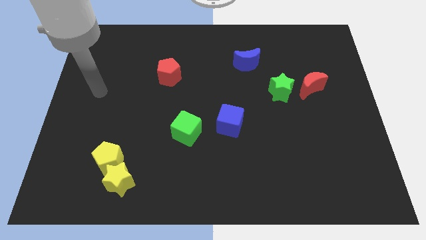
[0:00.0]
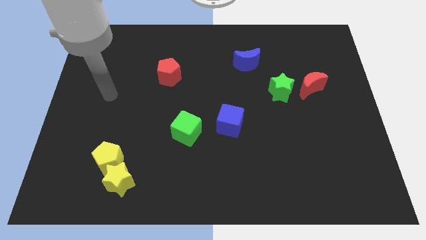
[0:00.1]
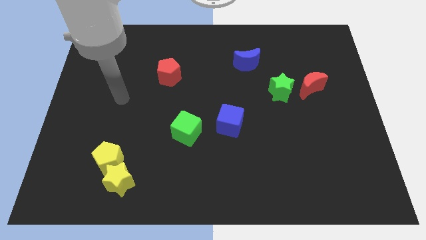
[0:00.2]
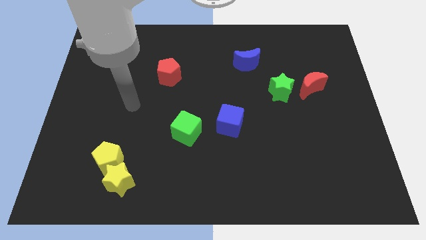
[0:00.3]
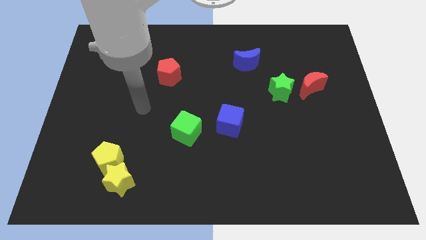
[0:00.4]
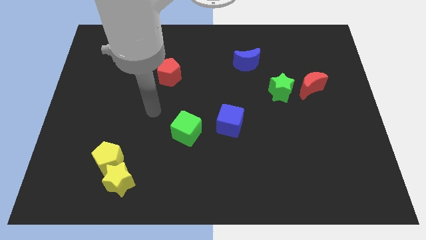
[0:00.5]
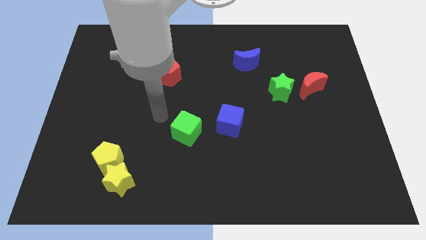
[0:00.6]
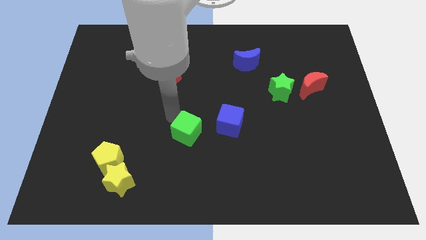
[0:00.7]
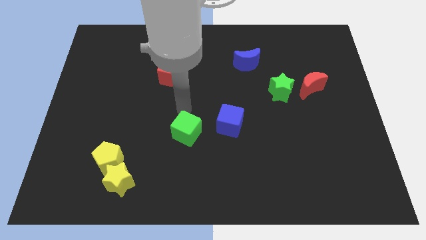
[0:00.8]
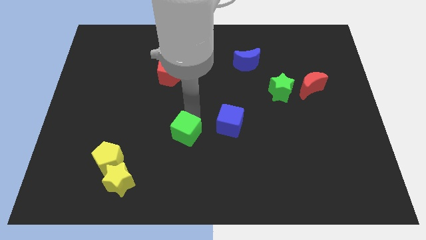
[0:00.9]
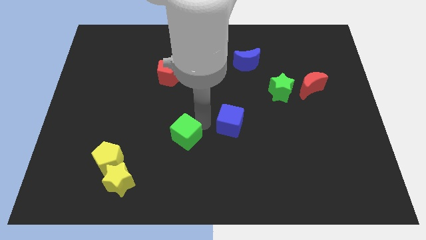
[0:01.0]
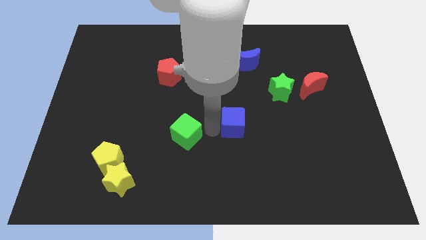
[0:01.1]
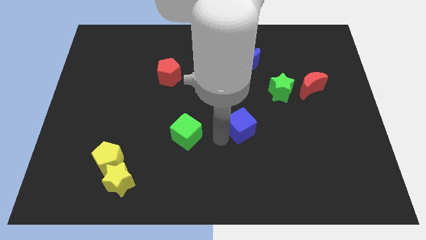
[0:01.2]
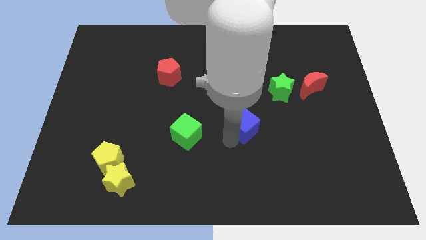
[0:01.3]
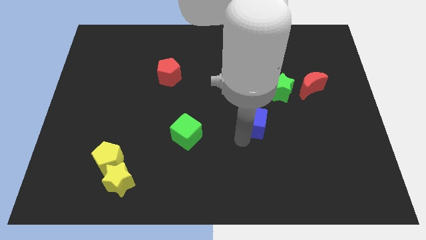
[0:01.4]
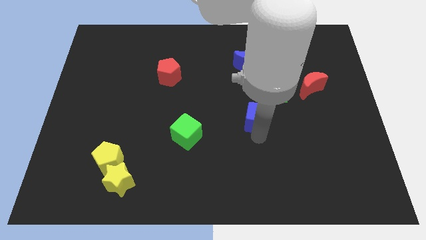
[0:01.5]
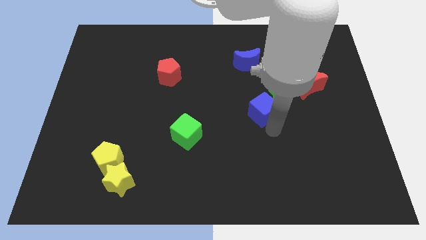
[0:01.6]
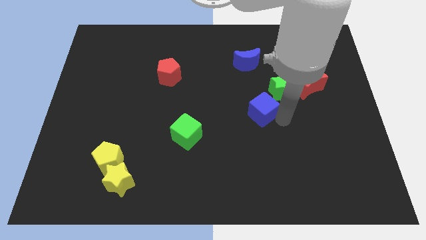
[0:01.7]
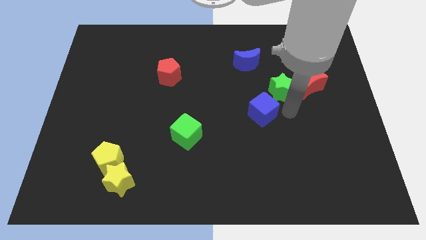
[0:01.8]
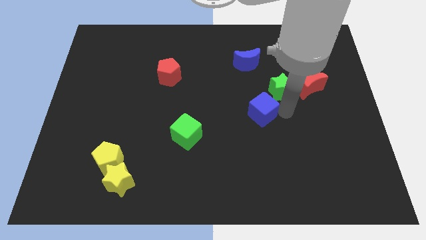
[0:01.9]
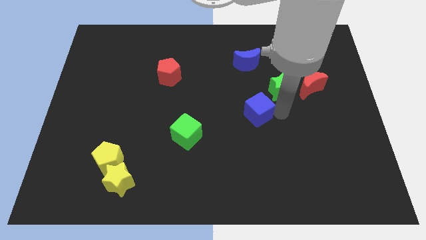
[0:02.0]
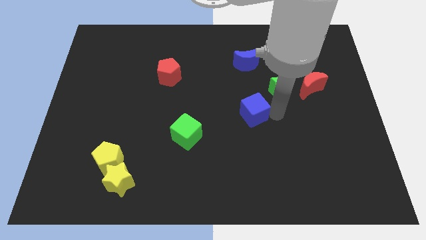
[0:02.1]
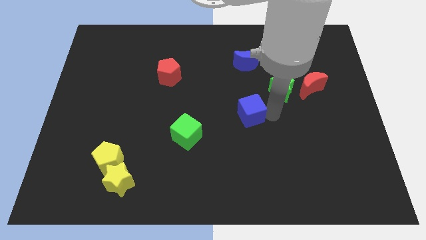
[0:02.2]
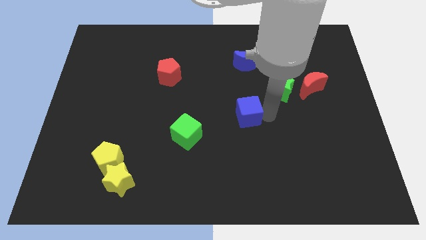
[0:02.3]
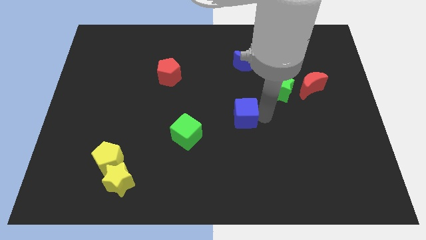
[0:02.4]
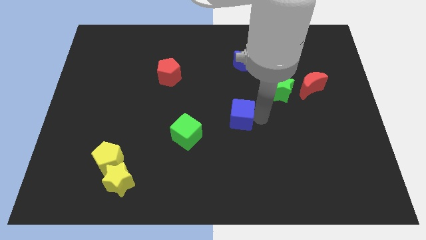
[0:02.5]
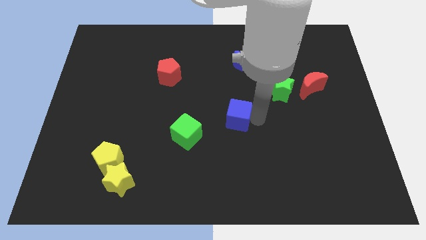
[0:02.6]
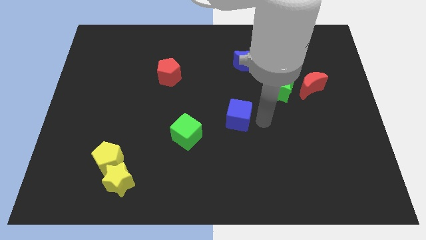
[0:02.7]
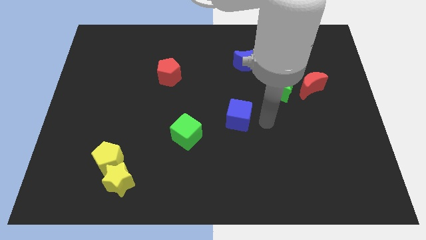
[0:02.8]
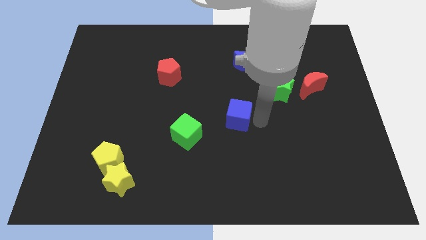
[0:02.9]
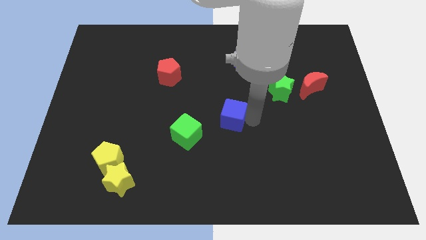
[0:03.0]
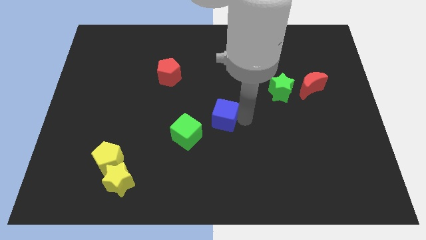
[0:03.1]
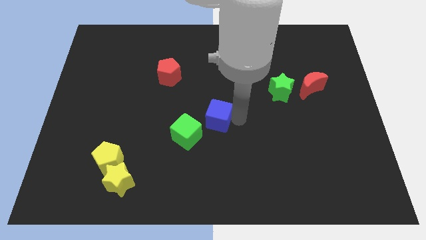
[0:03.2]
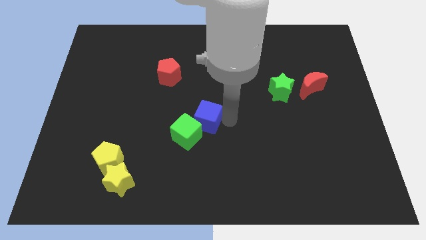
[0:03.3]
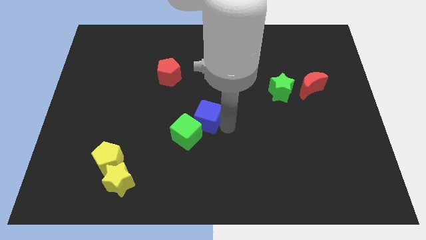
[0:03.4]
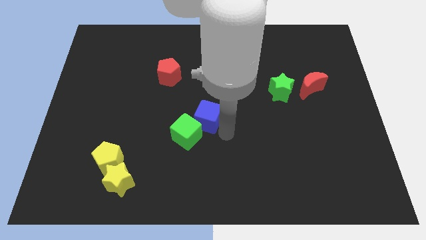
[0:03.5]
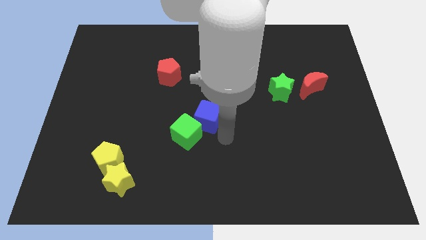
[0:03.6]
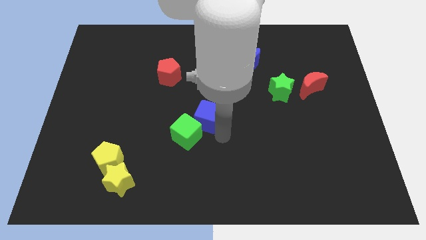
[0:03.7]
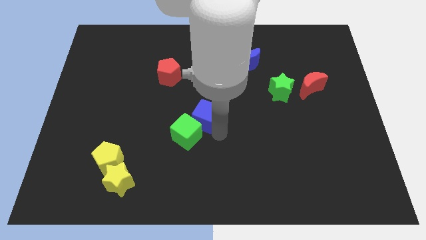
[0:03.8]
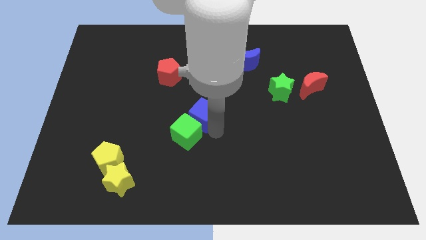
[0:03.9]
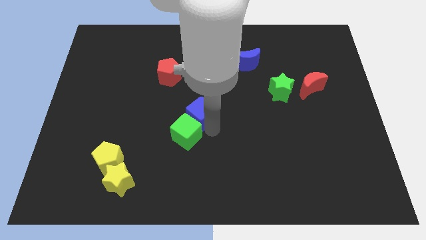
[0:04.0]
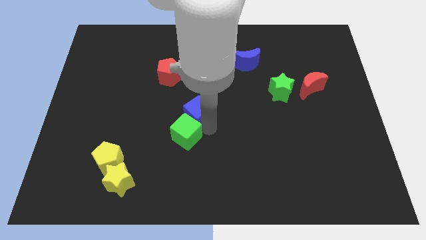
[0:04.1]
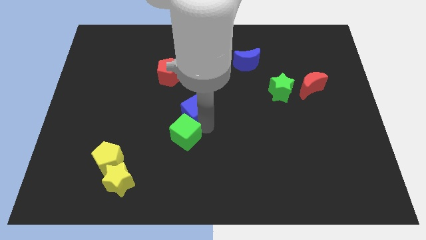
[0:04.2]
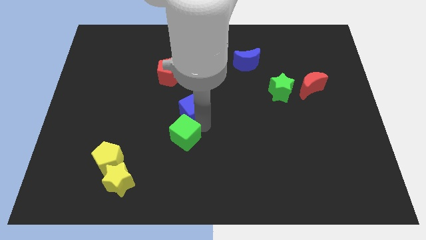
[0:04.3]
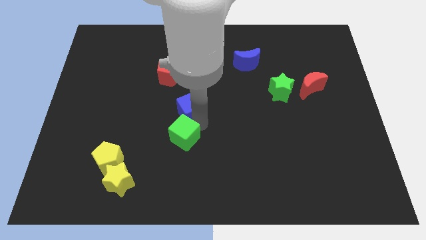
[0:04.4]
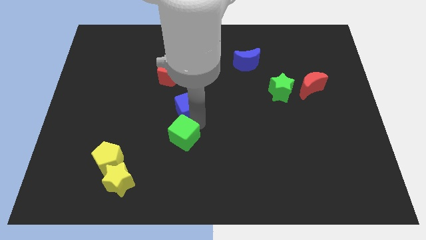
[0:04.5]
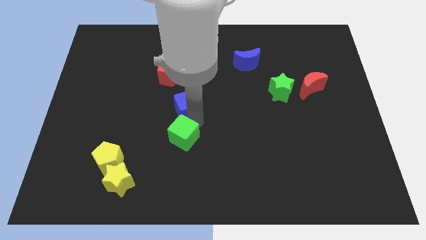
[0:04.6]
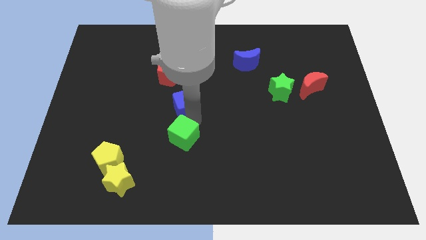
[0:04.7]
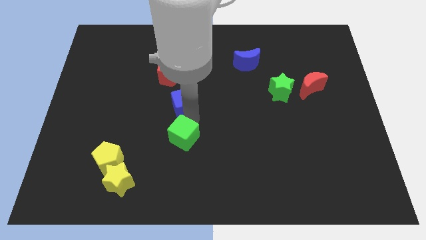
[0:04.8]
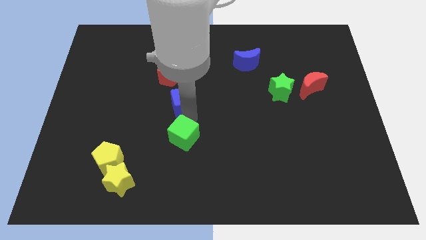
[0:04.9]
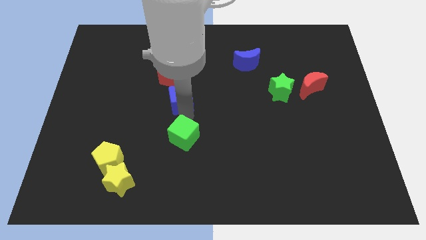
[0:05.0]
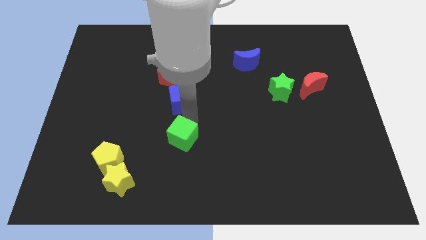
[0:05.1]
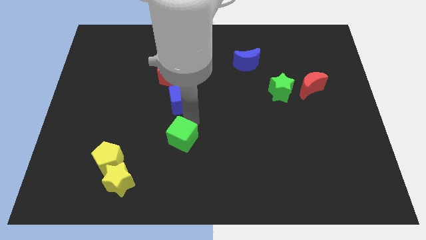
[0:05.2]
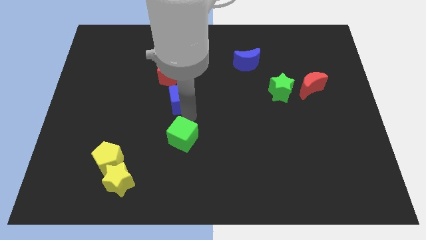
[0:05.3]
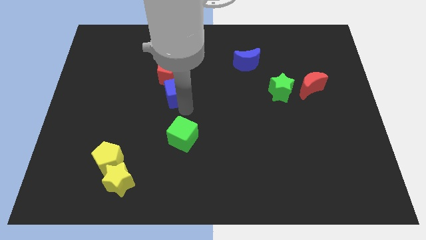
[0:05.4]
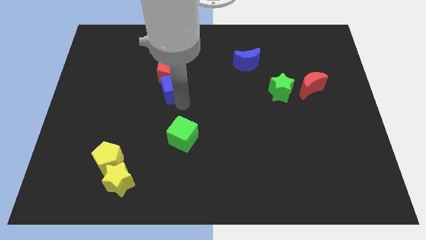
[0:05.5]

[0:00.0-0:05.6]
push the blue cube close to the red pentagon
